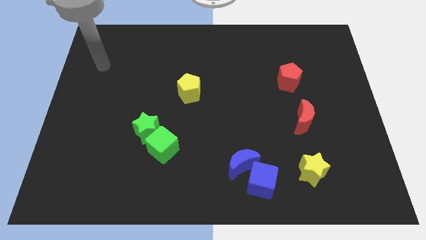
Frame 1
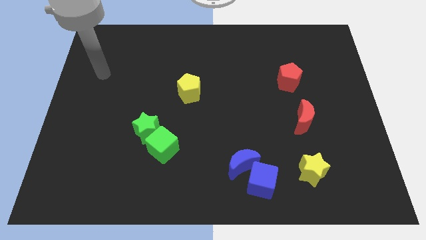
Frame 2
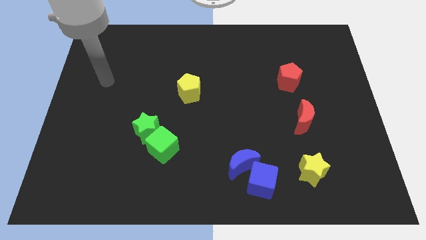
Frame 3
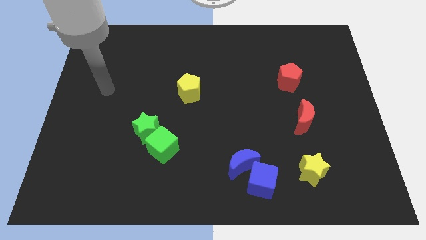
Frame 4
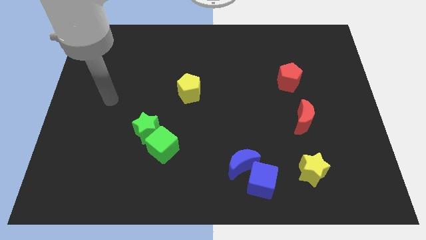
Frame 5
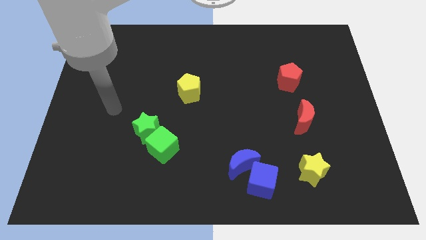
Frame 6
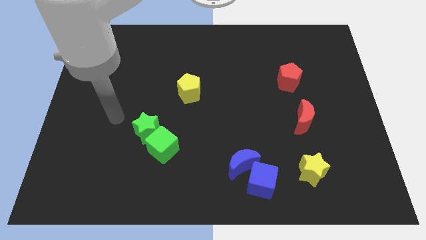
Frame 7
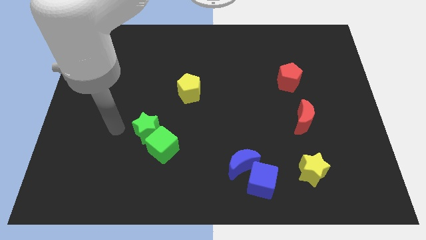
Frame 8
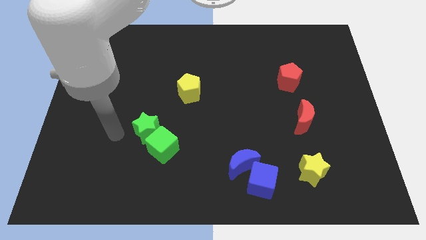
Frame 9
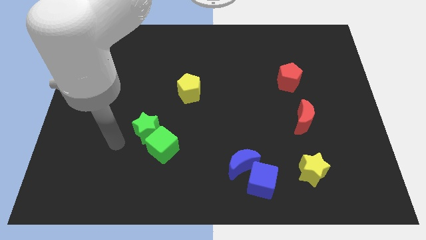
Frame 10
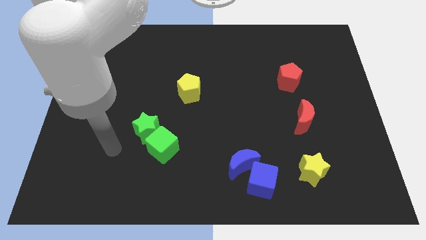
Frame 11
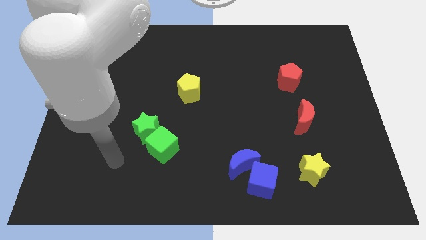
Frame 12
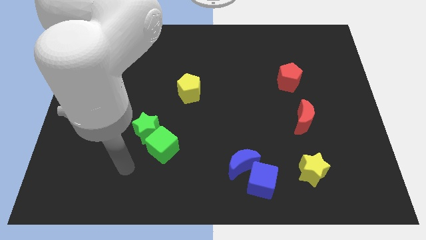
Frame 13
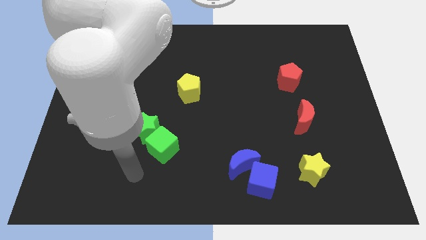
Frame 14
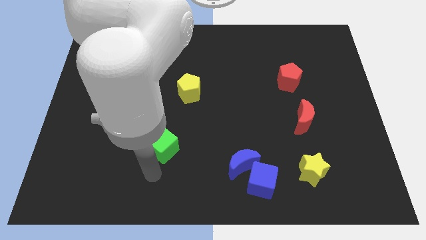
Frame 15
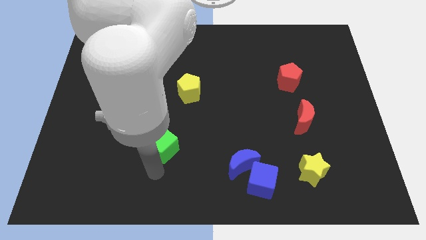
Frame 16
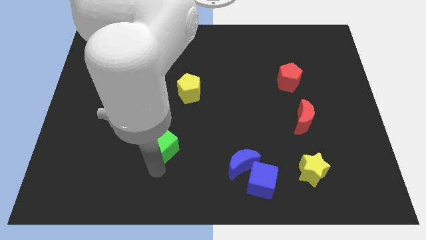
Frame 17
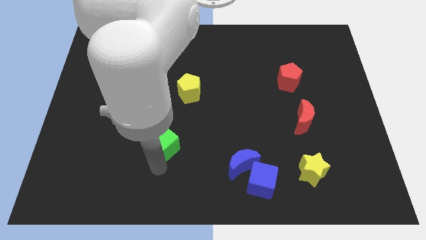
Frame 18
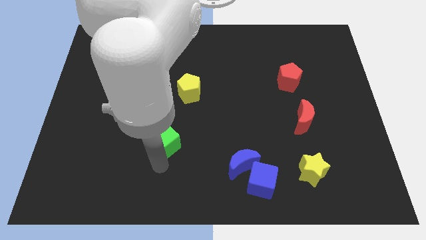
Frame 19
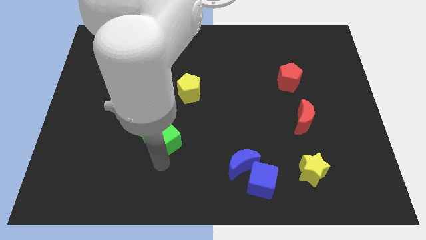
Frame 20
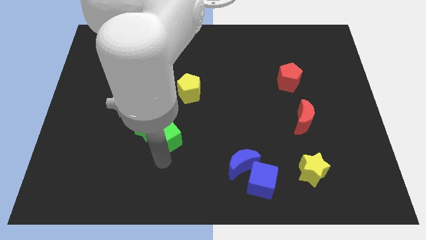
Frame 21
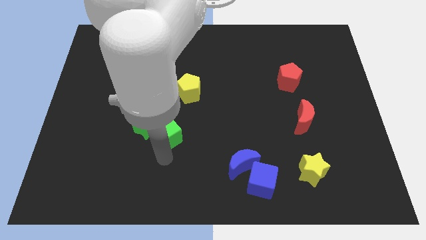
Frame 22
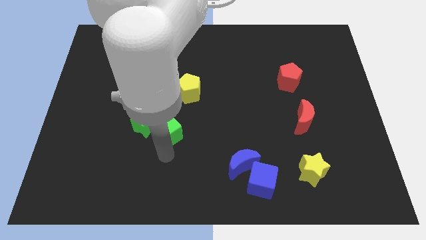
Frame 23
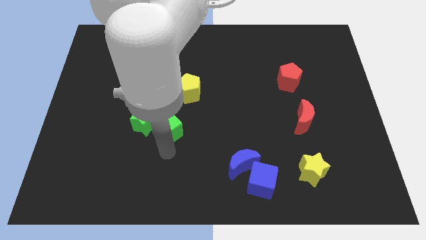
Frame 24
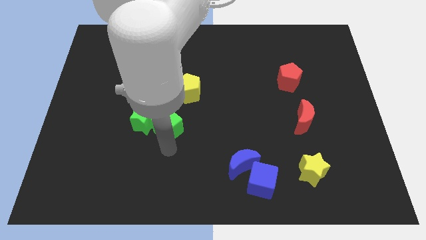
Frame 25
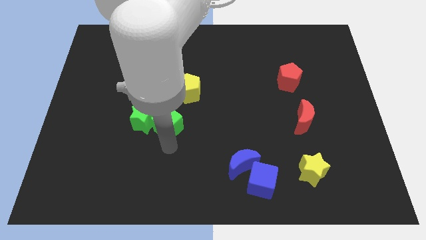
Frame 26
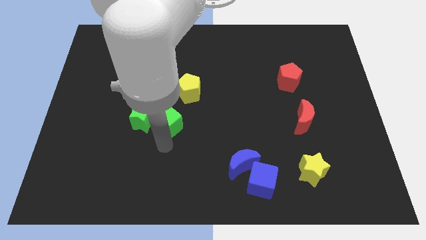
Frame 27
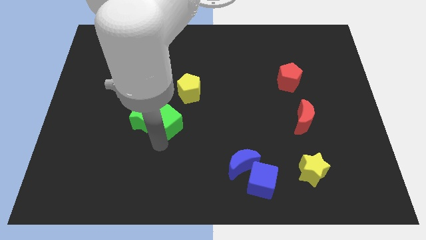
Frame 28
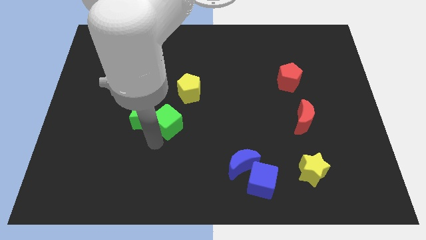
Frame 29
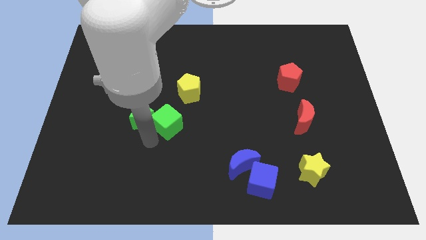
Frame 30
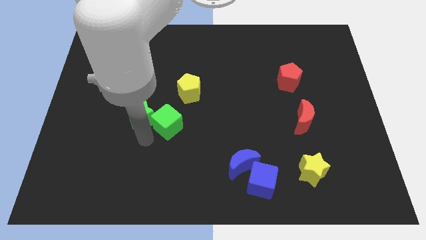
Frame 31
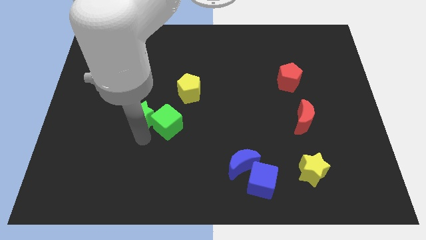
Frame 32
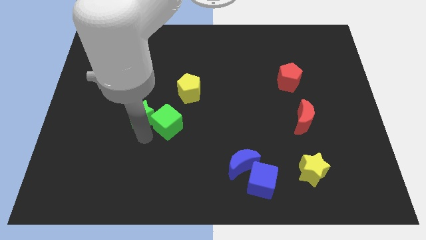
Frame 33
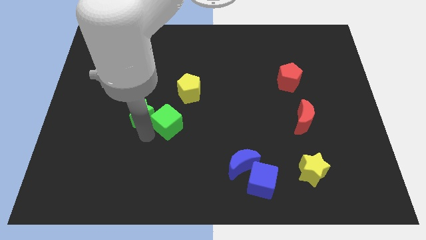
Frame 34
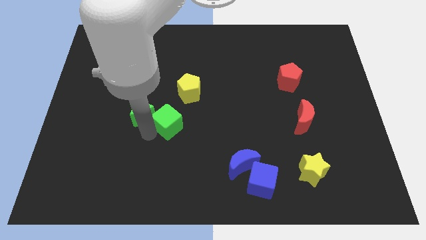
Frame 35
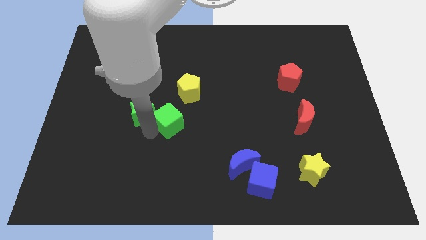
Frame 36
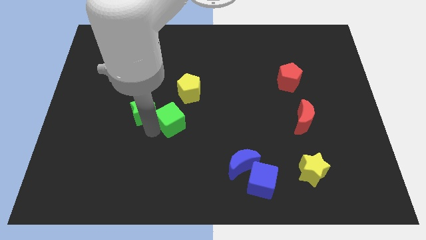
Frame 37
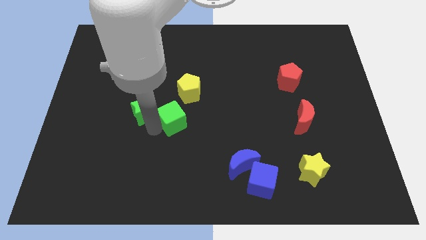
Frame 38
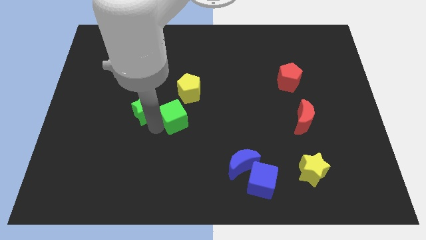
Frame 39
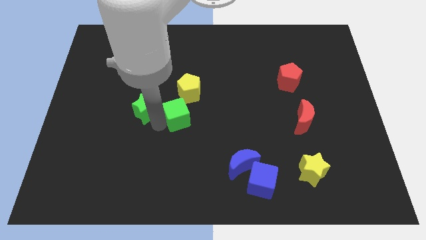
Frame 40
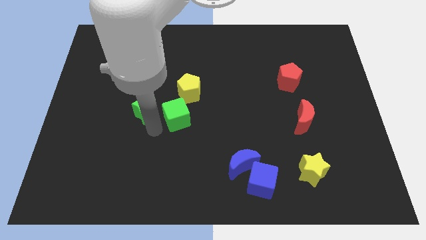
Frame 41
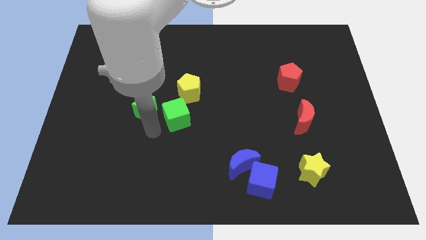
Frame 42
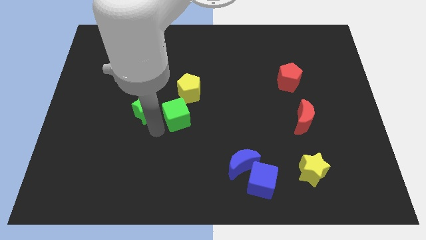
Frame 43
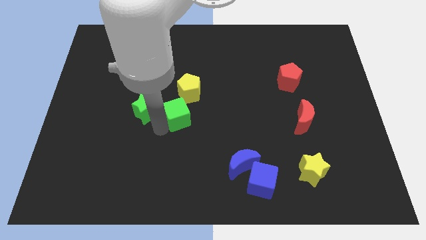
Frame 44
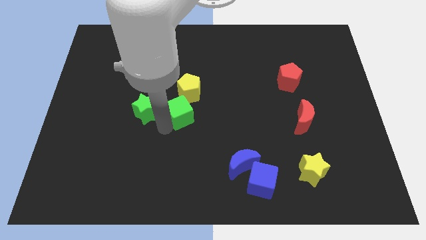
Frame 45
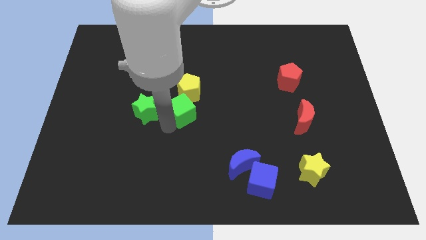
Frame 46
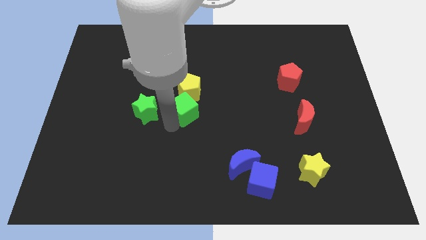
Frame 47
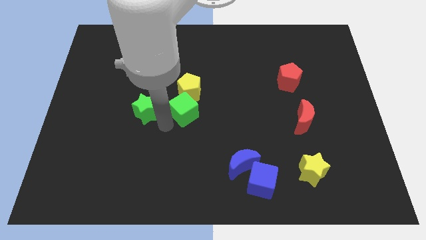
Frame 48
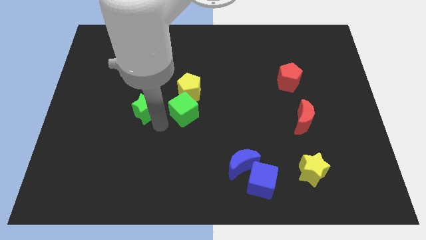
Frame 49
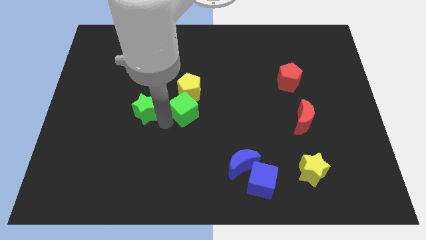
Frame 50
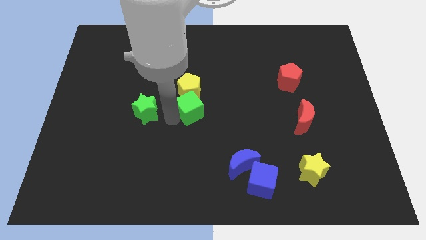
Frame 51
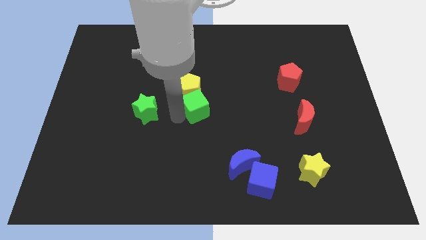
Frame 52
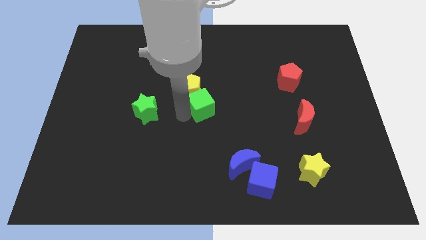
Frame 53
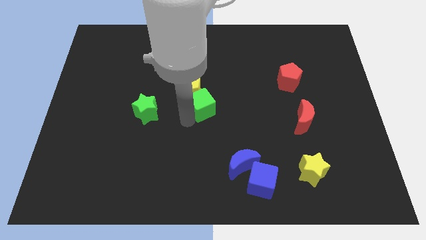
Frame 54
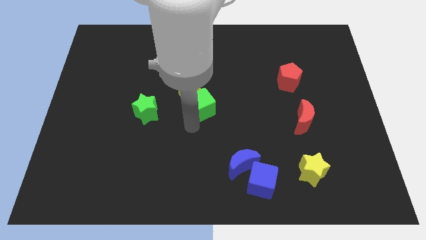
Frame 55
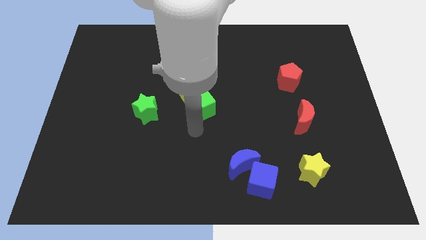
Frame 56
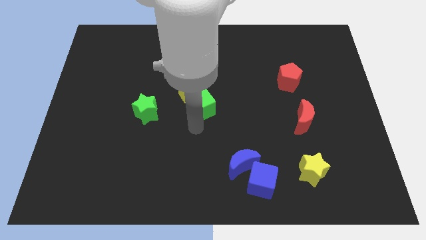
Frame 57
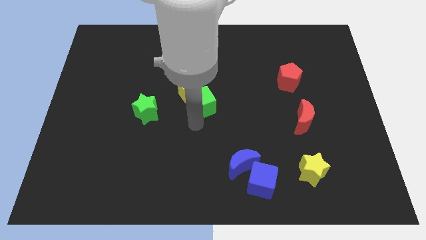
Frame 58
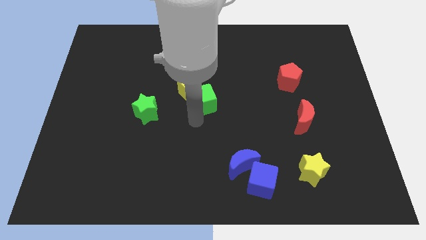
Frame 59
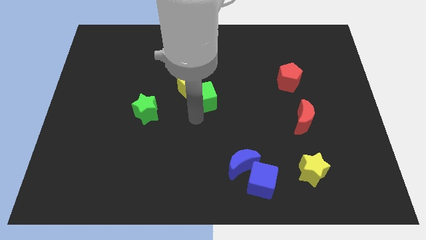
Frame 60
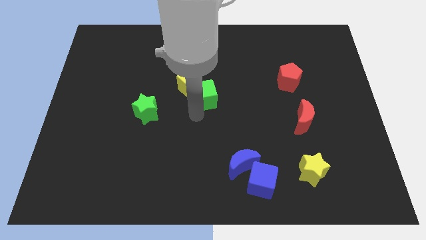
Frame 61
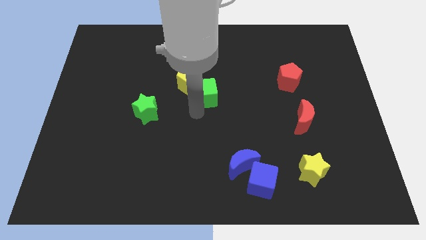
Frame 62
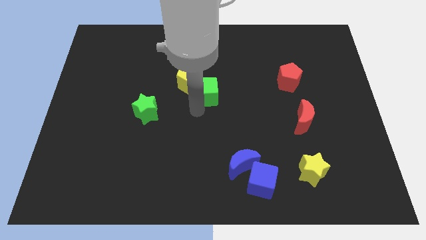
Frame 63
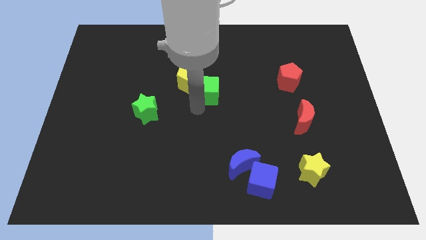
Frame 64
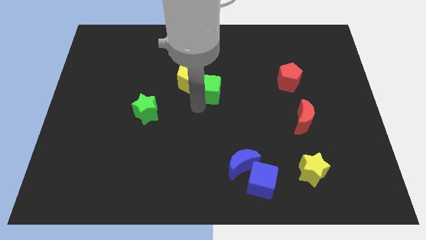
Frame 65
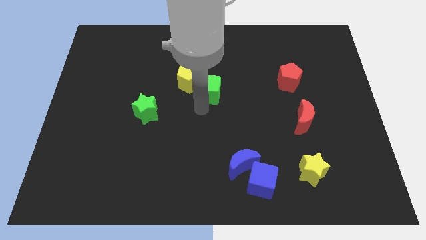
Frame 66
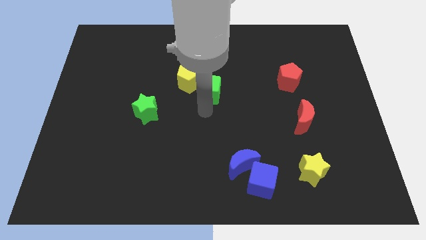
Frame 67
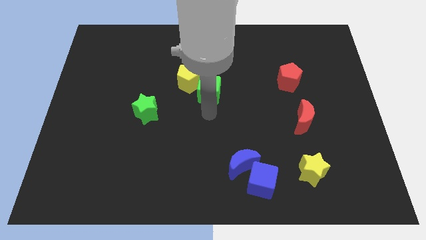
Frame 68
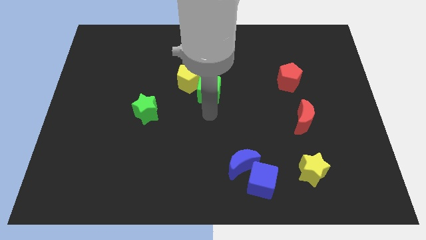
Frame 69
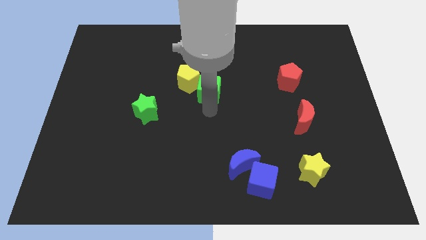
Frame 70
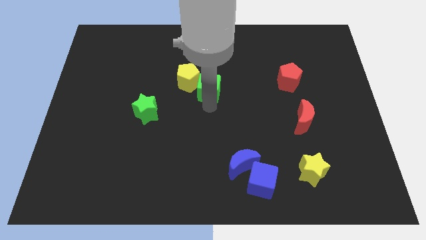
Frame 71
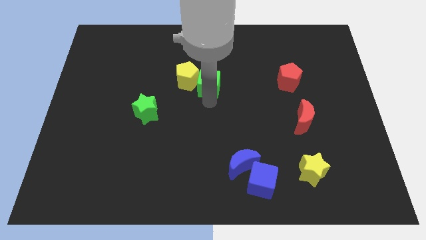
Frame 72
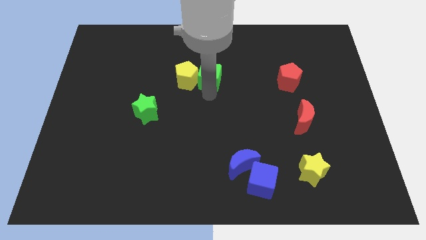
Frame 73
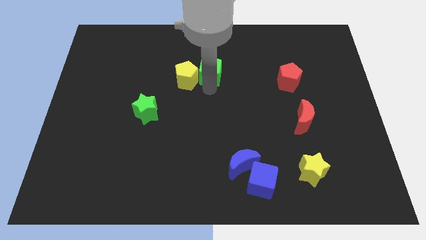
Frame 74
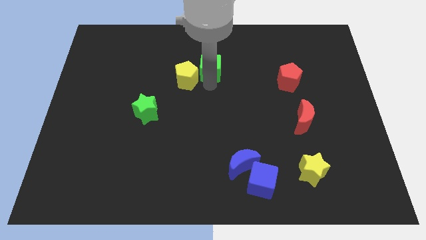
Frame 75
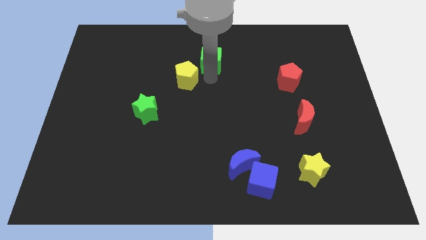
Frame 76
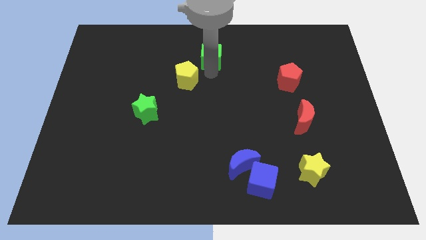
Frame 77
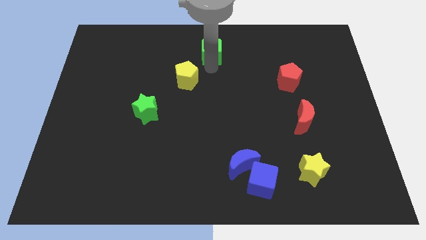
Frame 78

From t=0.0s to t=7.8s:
move the green cube to the top
